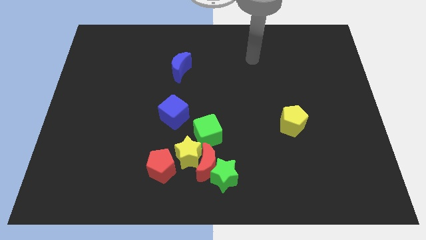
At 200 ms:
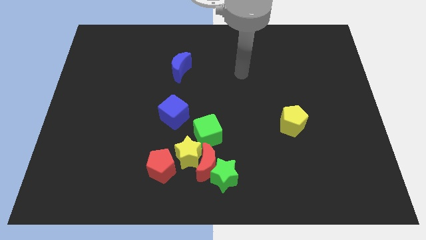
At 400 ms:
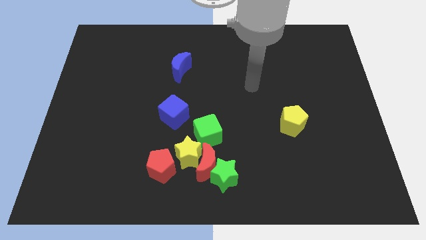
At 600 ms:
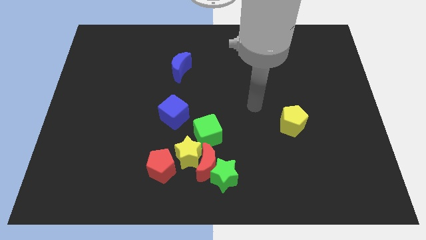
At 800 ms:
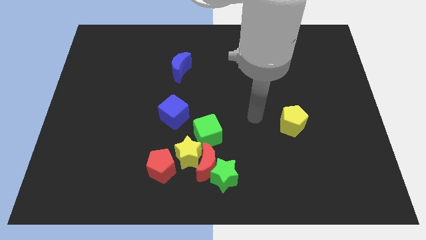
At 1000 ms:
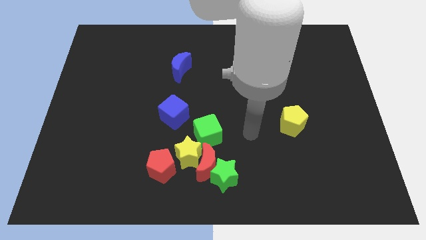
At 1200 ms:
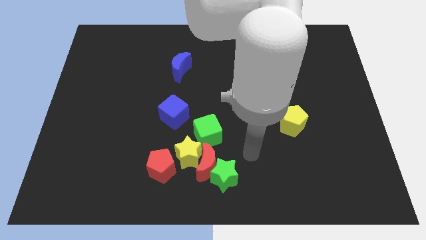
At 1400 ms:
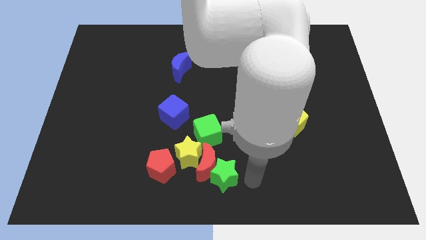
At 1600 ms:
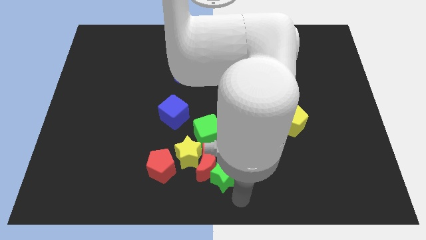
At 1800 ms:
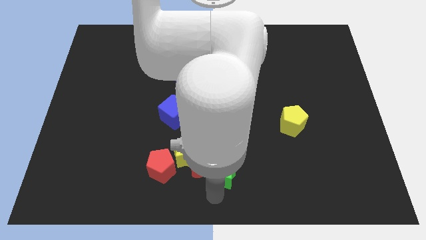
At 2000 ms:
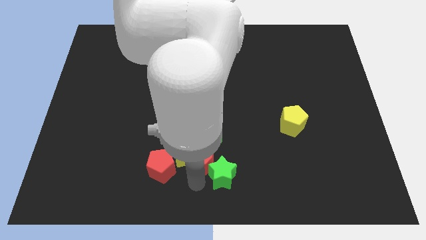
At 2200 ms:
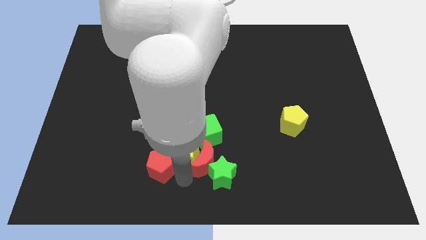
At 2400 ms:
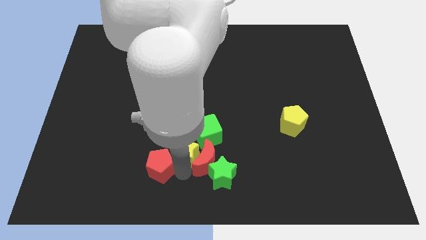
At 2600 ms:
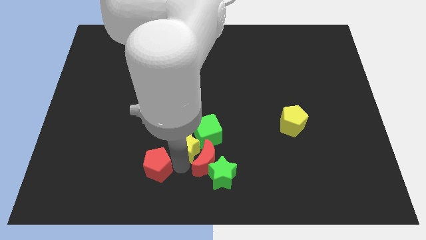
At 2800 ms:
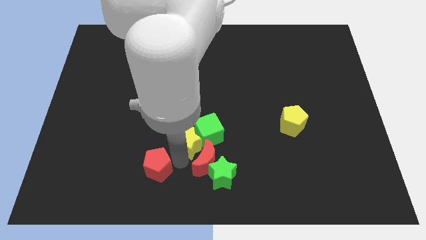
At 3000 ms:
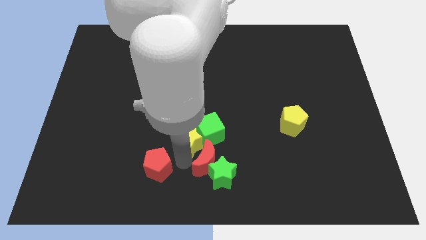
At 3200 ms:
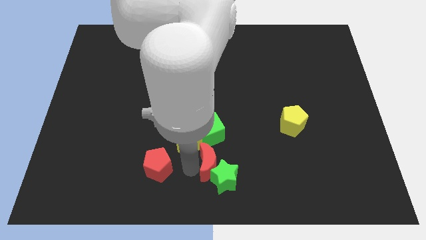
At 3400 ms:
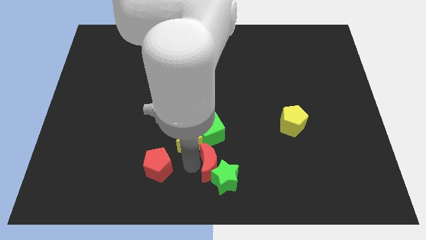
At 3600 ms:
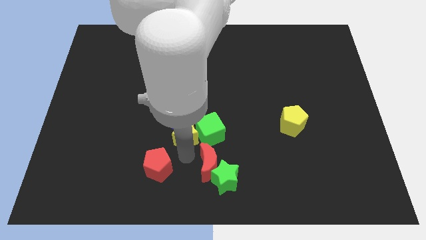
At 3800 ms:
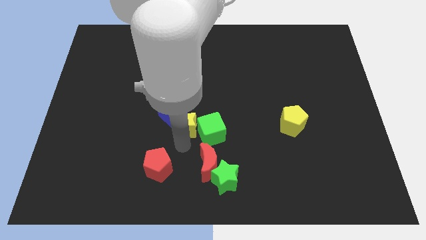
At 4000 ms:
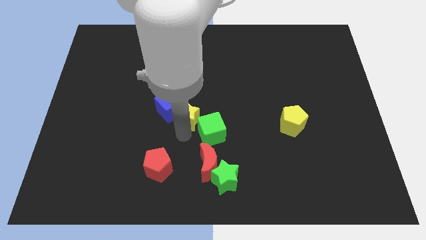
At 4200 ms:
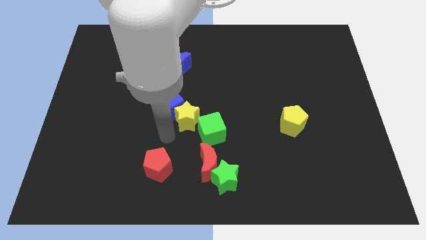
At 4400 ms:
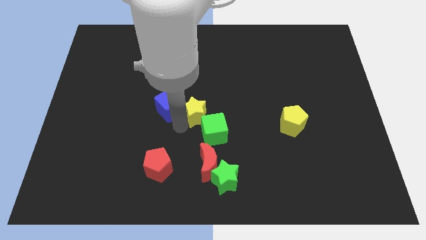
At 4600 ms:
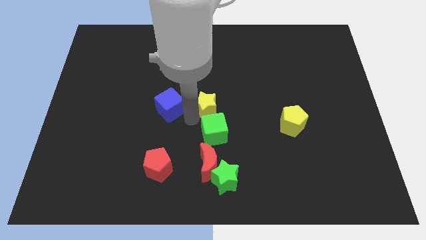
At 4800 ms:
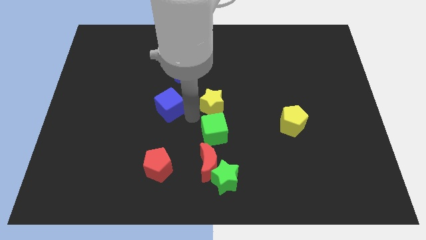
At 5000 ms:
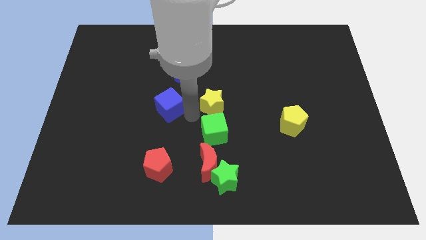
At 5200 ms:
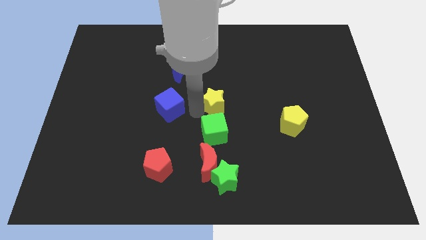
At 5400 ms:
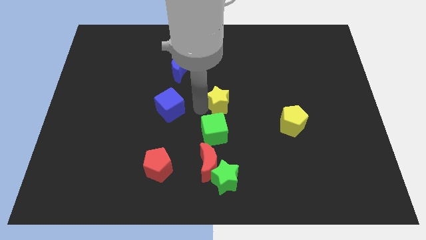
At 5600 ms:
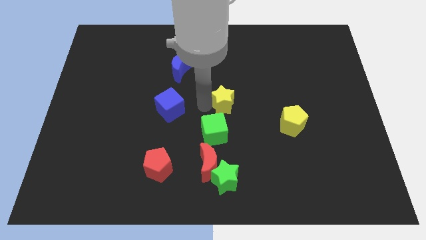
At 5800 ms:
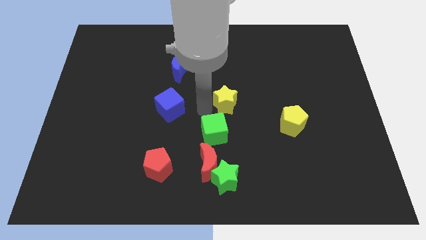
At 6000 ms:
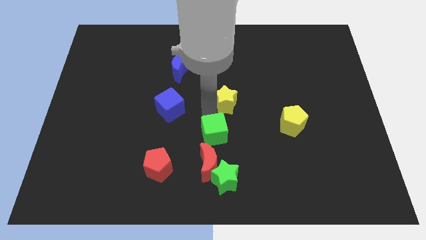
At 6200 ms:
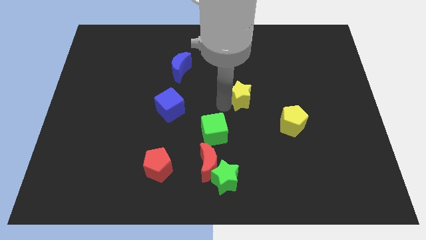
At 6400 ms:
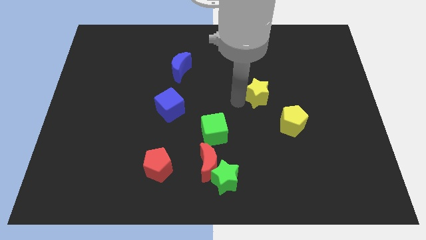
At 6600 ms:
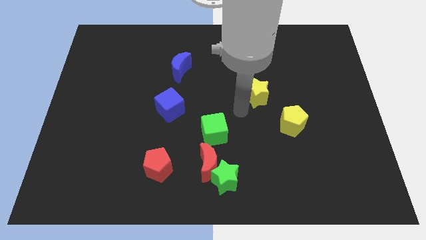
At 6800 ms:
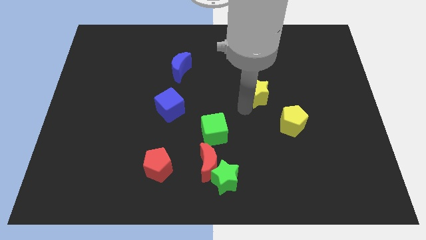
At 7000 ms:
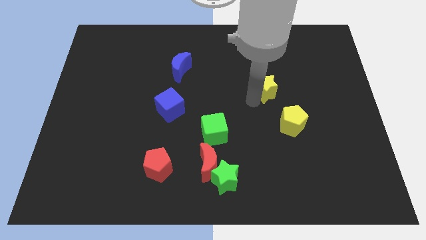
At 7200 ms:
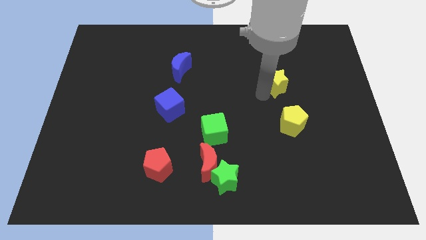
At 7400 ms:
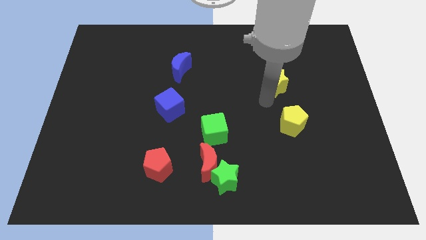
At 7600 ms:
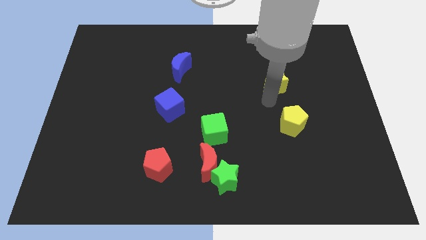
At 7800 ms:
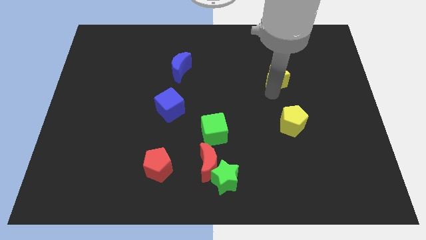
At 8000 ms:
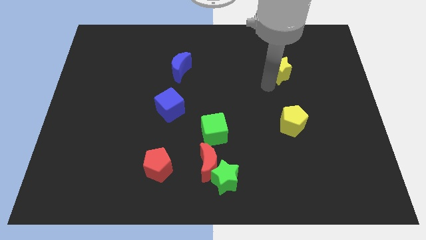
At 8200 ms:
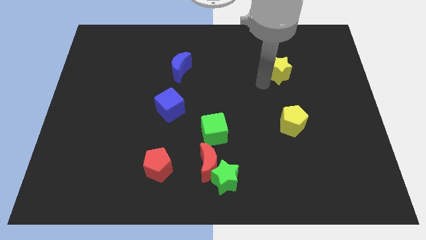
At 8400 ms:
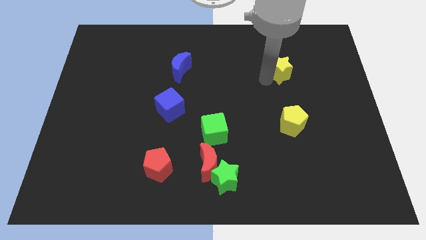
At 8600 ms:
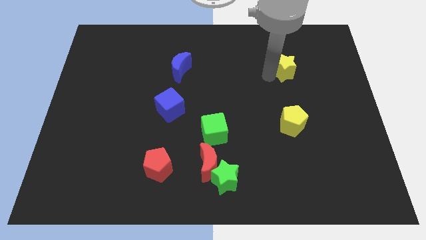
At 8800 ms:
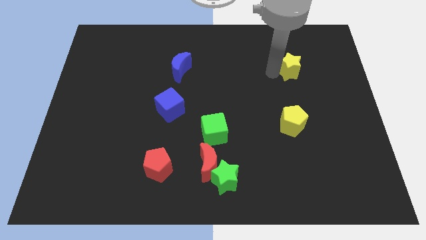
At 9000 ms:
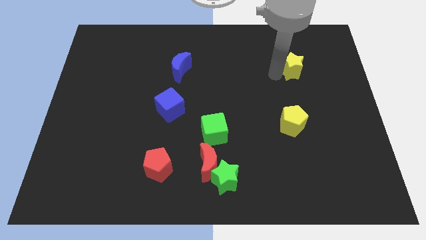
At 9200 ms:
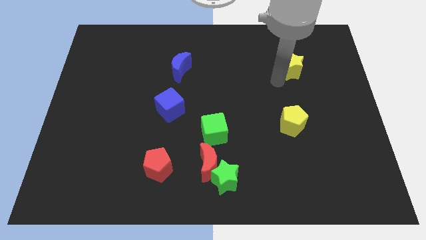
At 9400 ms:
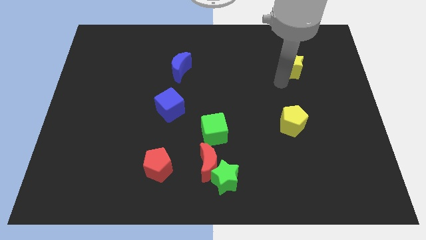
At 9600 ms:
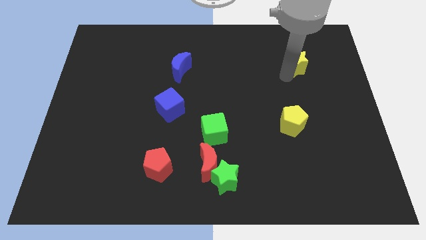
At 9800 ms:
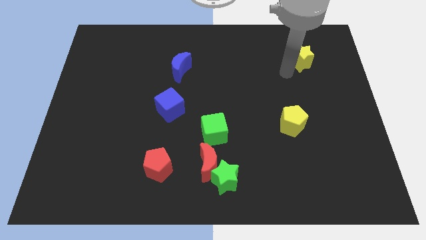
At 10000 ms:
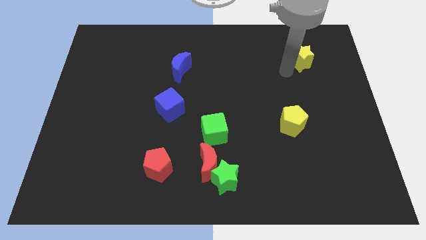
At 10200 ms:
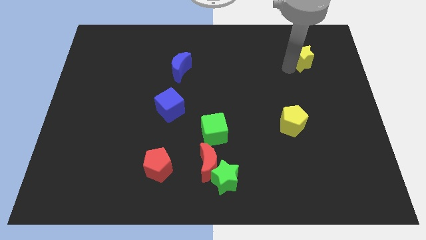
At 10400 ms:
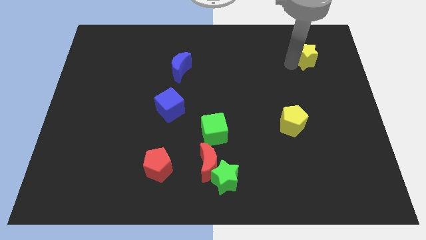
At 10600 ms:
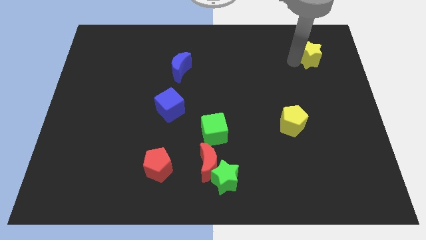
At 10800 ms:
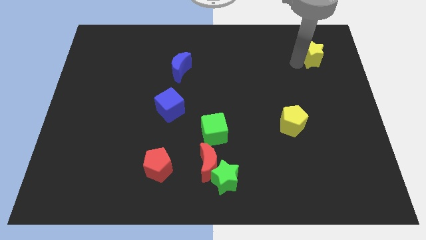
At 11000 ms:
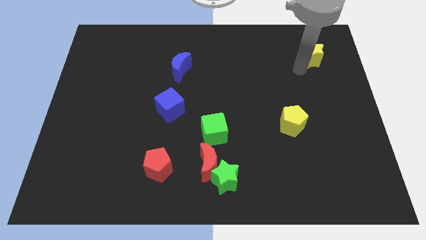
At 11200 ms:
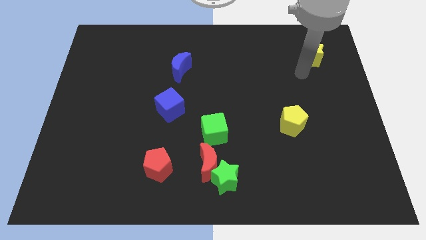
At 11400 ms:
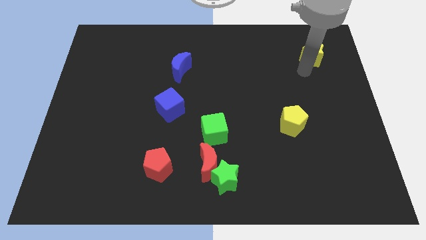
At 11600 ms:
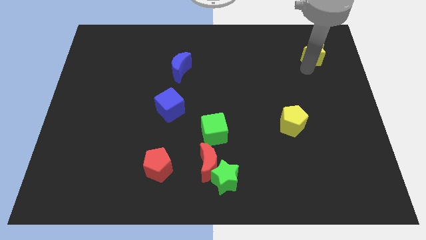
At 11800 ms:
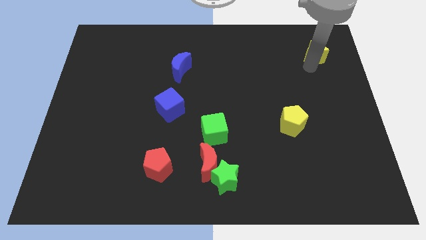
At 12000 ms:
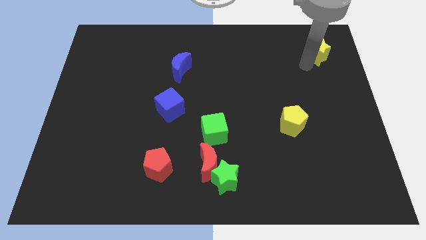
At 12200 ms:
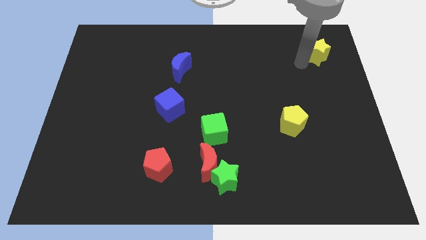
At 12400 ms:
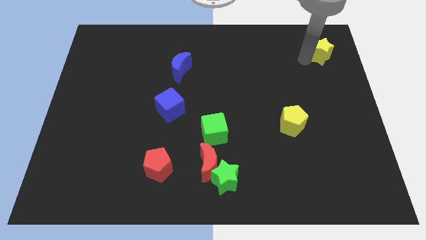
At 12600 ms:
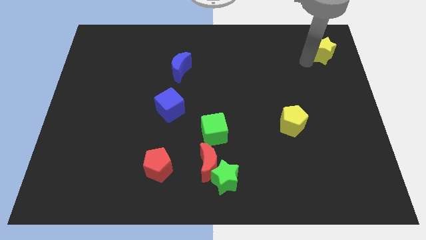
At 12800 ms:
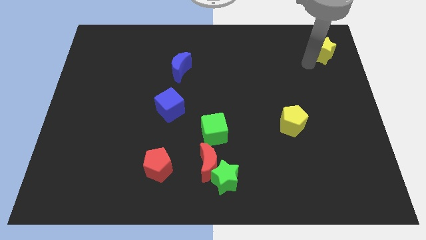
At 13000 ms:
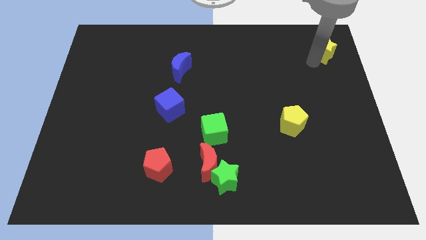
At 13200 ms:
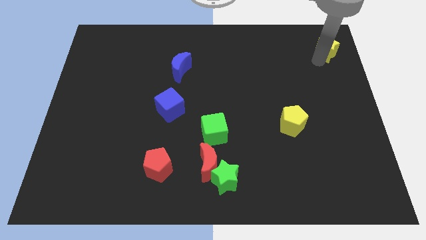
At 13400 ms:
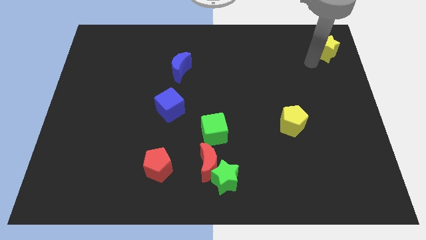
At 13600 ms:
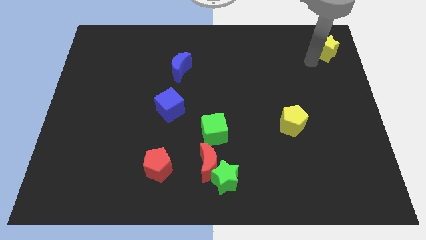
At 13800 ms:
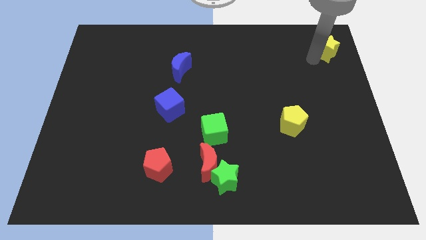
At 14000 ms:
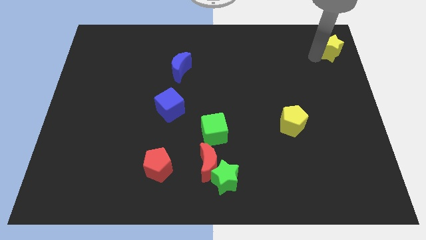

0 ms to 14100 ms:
move the yellow star to the top right
